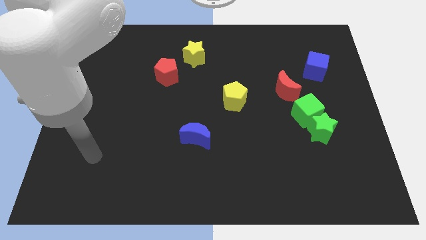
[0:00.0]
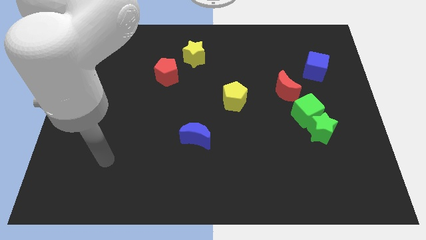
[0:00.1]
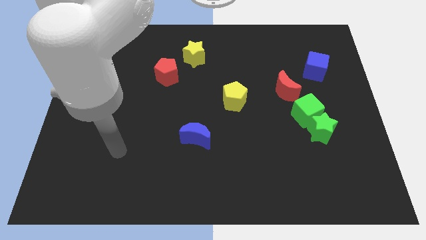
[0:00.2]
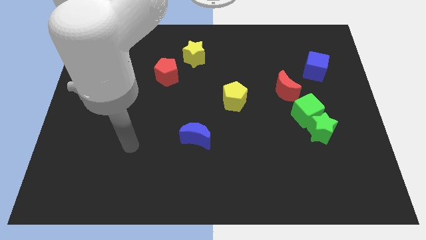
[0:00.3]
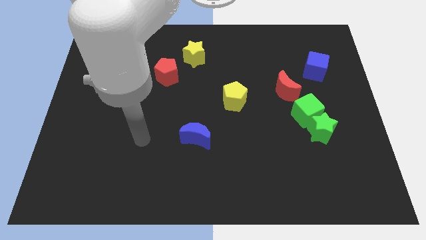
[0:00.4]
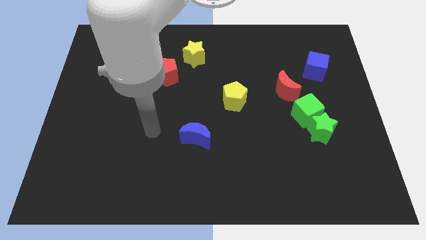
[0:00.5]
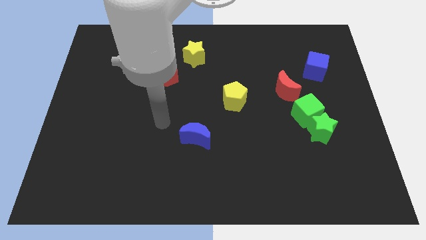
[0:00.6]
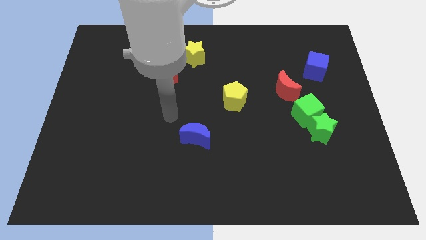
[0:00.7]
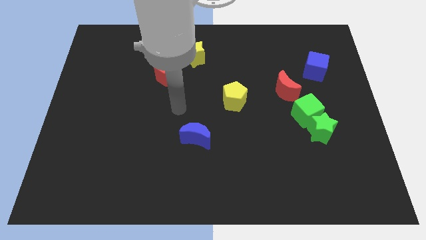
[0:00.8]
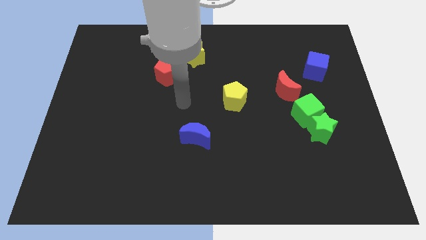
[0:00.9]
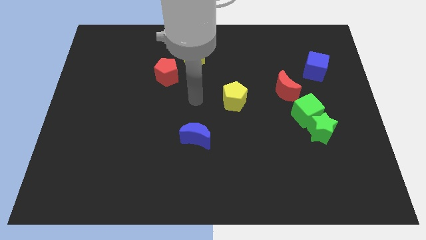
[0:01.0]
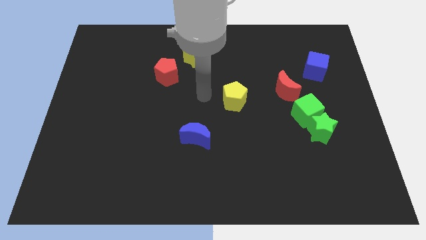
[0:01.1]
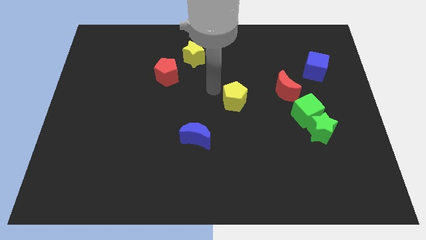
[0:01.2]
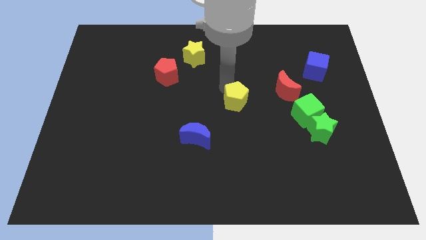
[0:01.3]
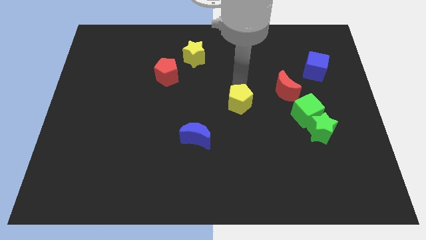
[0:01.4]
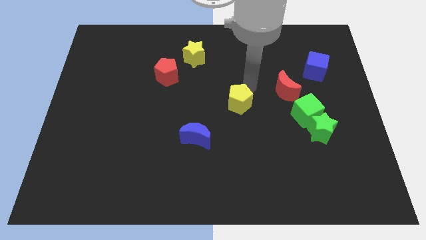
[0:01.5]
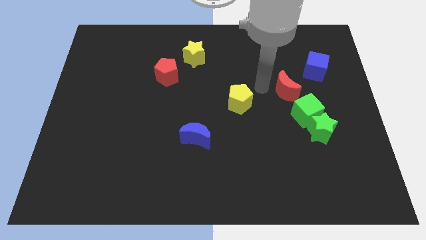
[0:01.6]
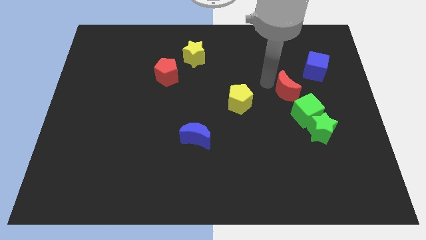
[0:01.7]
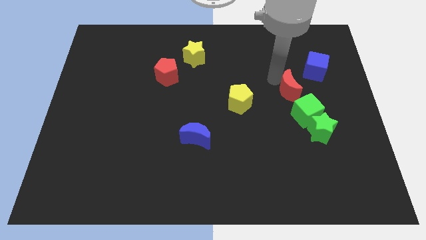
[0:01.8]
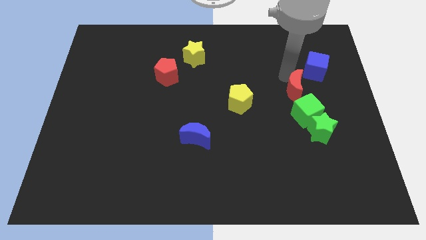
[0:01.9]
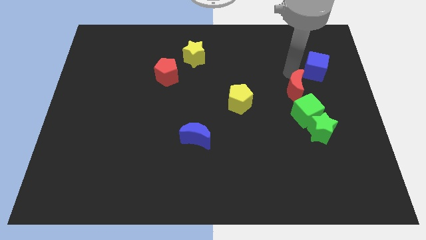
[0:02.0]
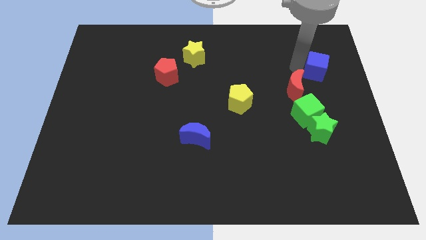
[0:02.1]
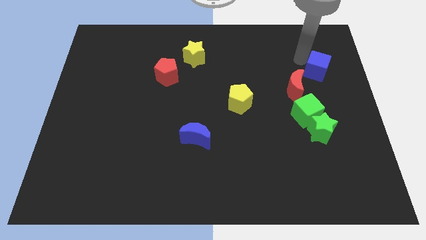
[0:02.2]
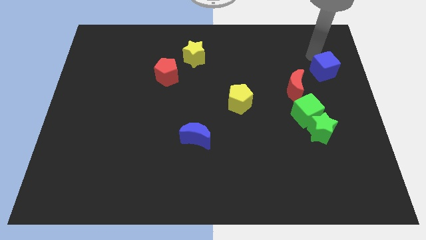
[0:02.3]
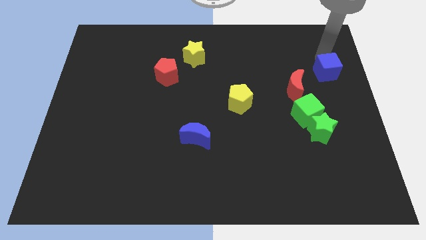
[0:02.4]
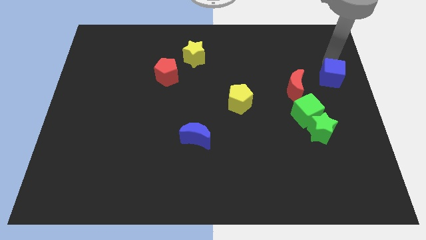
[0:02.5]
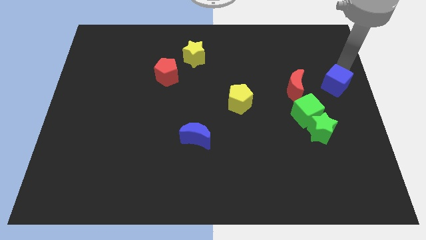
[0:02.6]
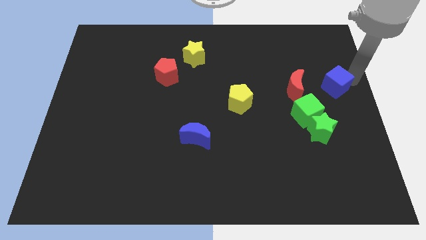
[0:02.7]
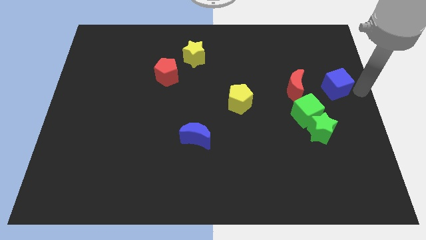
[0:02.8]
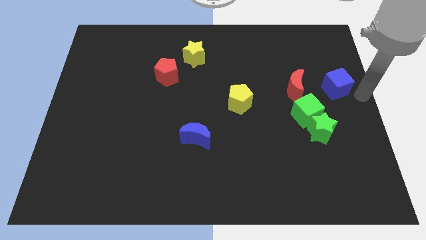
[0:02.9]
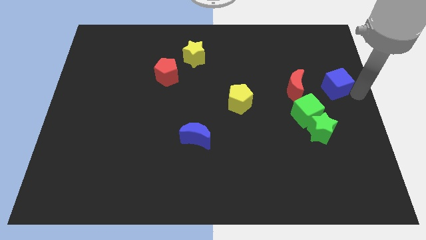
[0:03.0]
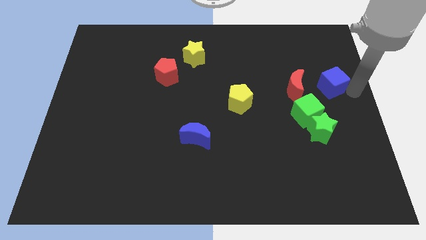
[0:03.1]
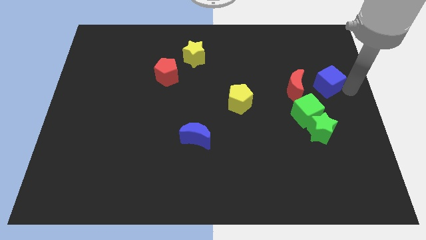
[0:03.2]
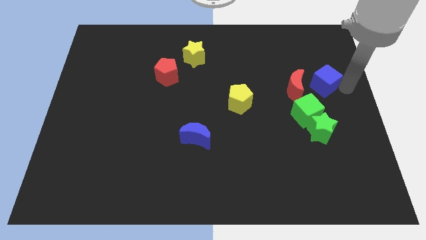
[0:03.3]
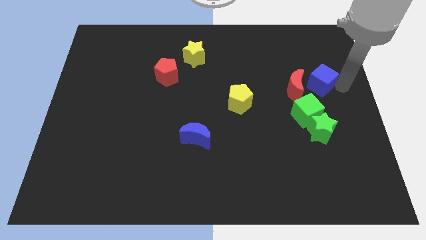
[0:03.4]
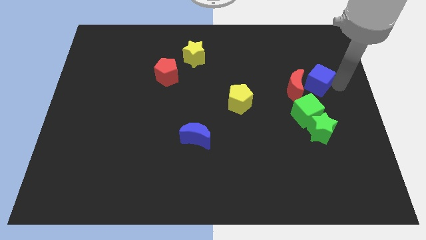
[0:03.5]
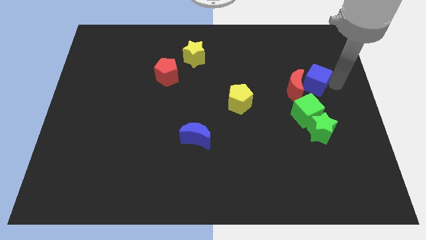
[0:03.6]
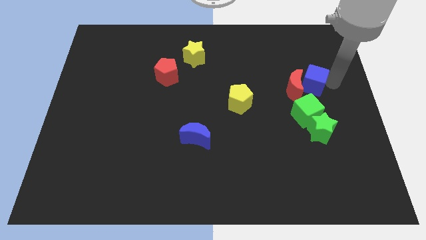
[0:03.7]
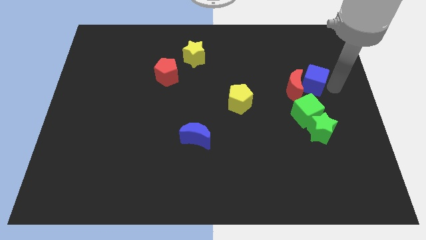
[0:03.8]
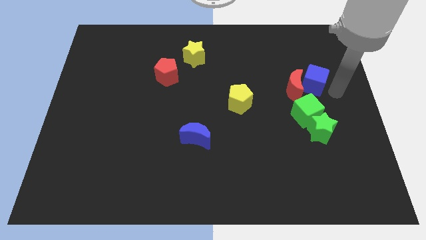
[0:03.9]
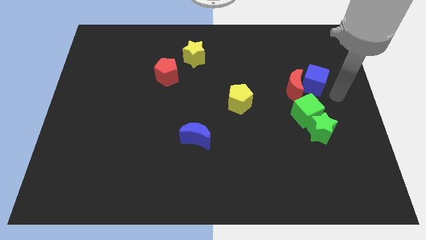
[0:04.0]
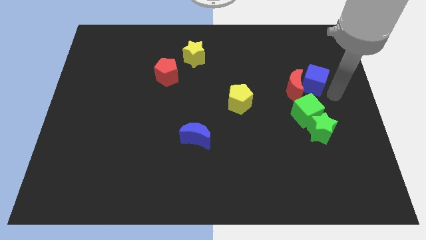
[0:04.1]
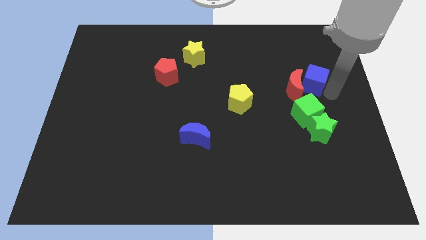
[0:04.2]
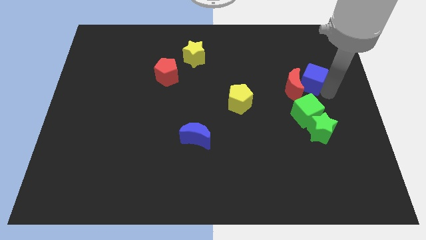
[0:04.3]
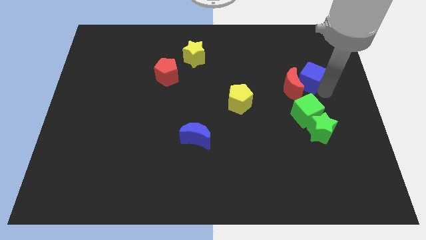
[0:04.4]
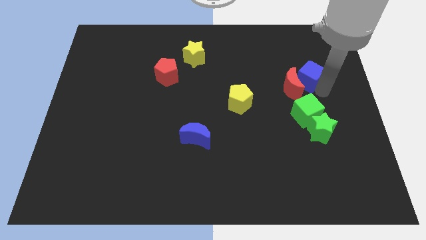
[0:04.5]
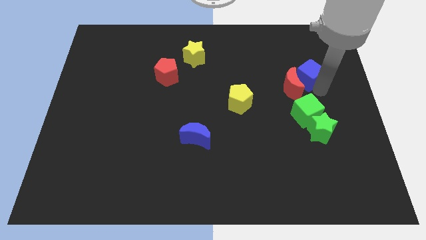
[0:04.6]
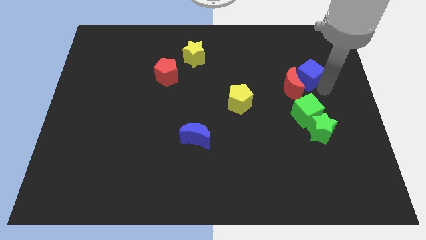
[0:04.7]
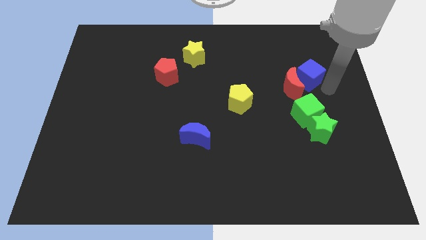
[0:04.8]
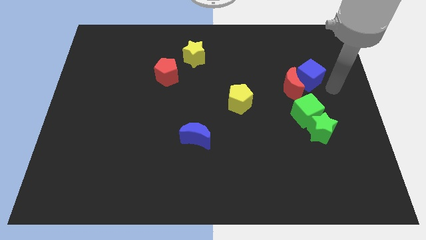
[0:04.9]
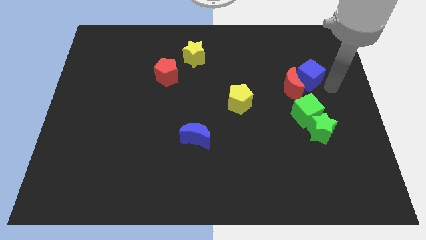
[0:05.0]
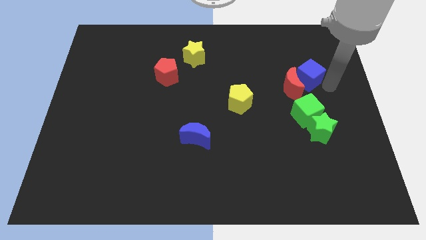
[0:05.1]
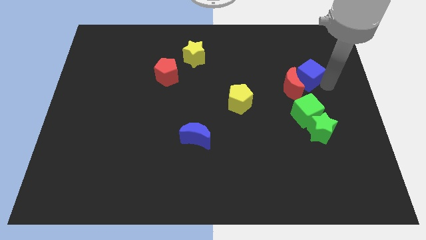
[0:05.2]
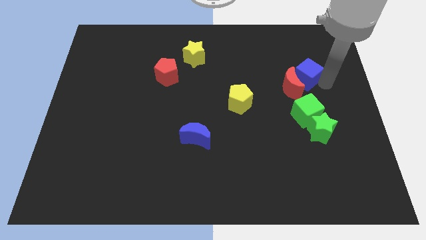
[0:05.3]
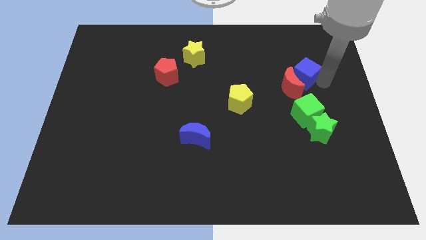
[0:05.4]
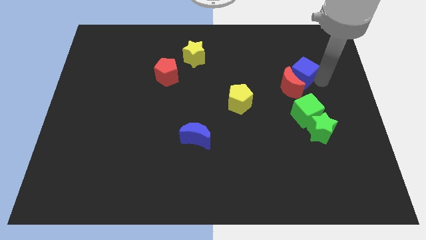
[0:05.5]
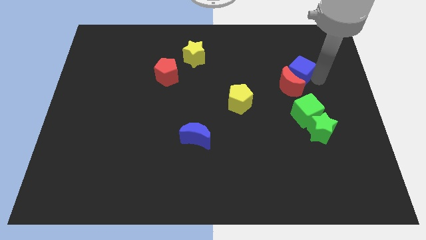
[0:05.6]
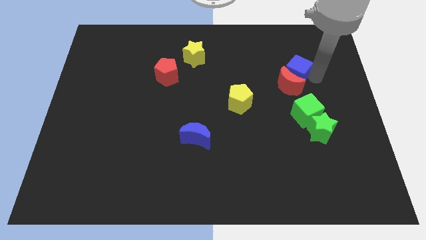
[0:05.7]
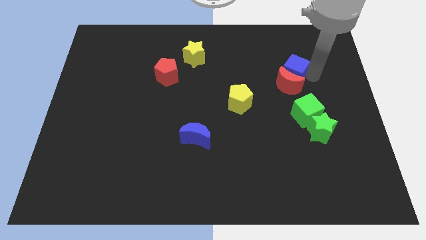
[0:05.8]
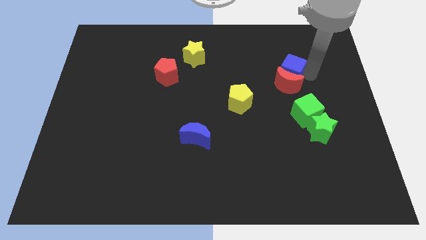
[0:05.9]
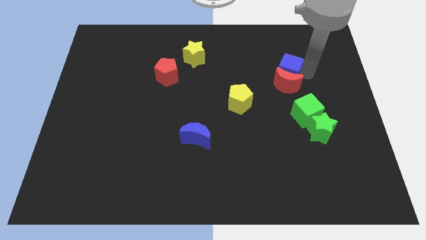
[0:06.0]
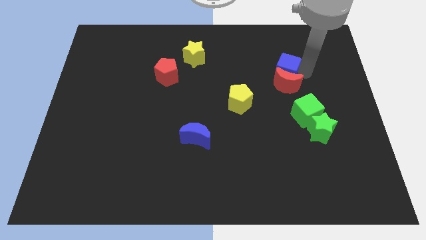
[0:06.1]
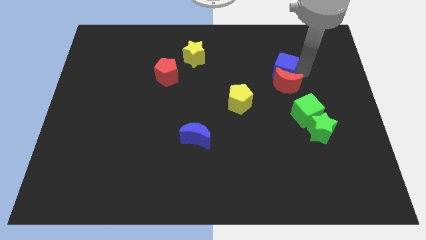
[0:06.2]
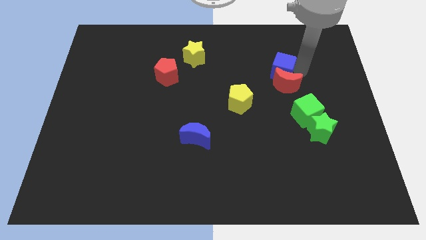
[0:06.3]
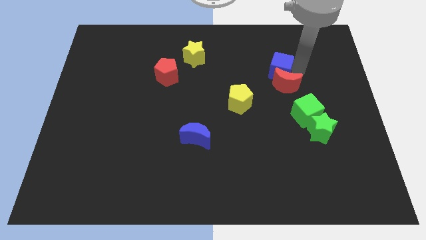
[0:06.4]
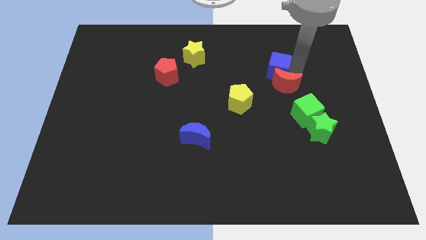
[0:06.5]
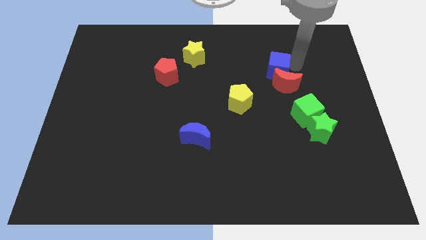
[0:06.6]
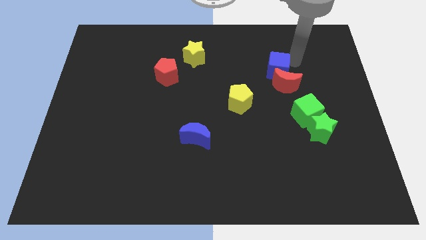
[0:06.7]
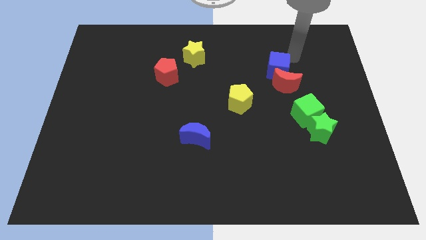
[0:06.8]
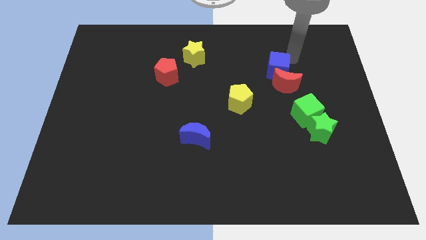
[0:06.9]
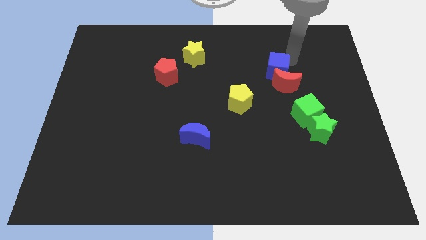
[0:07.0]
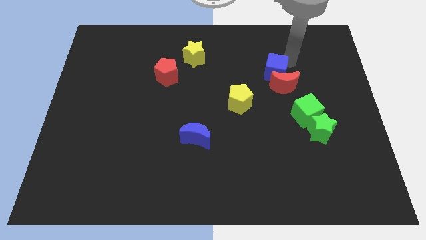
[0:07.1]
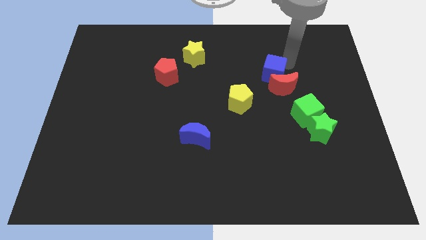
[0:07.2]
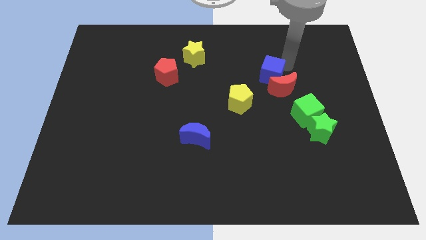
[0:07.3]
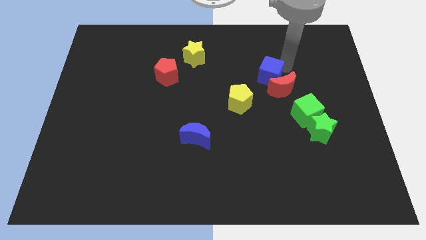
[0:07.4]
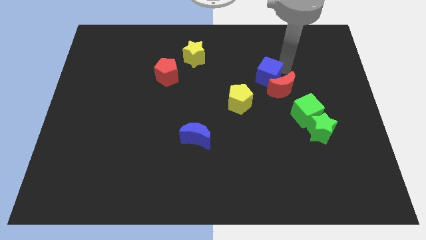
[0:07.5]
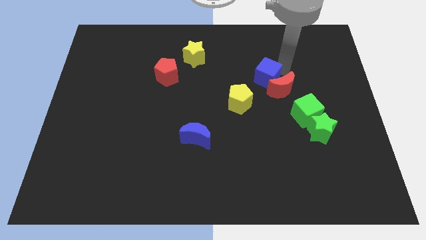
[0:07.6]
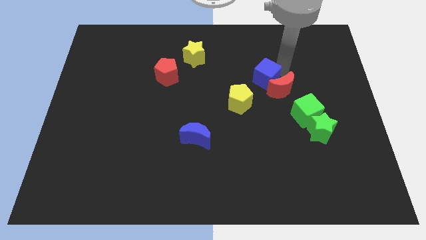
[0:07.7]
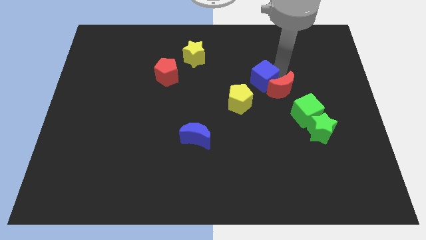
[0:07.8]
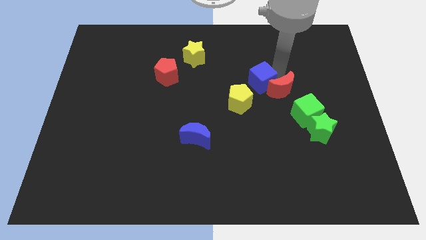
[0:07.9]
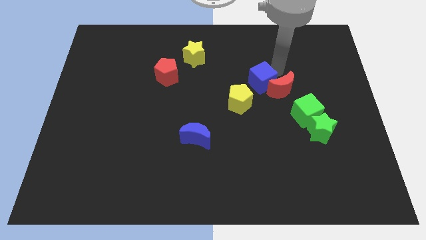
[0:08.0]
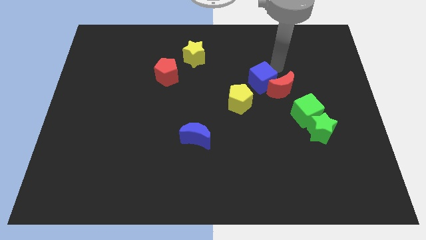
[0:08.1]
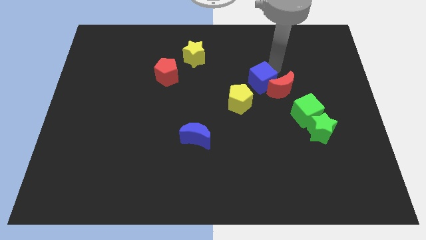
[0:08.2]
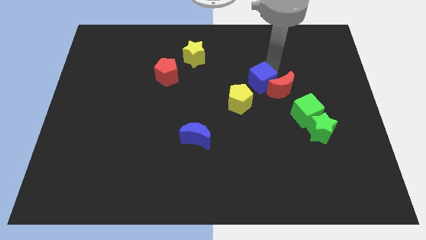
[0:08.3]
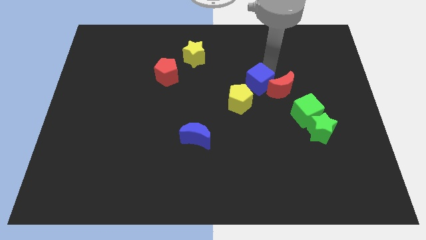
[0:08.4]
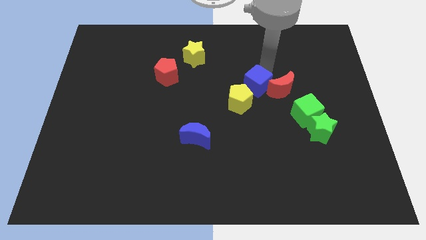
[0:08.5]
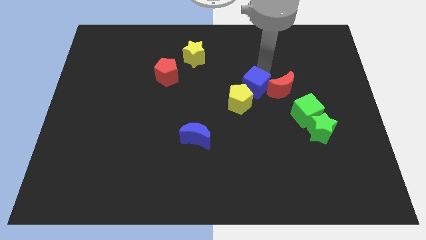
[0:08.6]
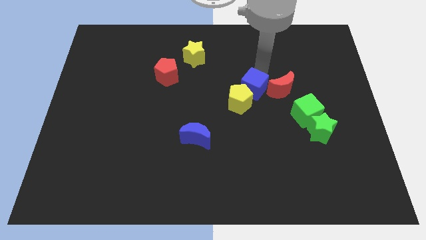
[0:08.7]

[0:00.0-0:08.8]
move the blue cube close to the yellow pentagon
